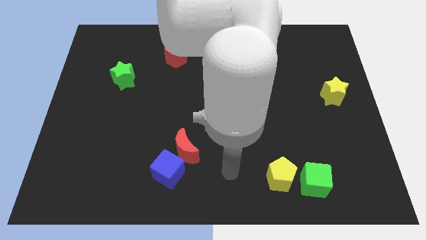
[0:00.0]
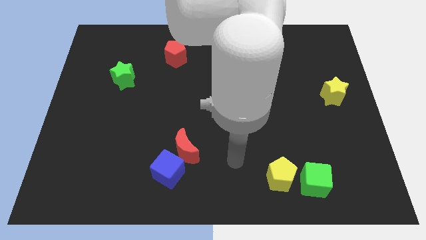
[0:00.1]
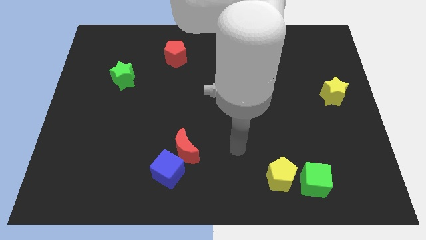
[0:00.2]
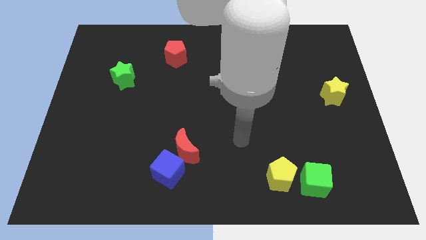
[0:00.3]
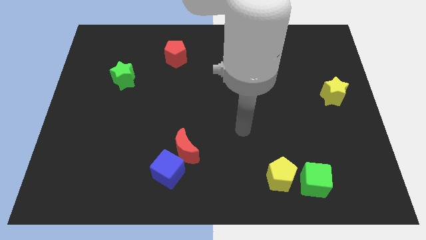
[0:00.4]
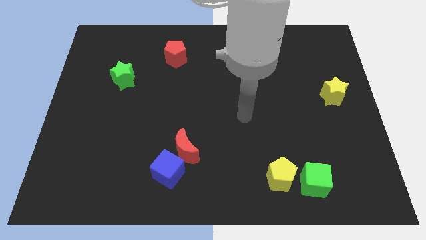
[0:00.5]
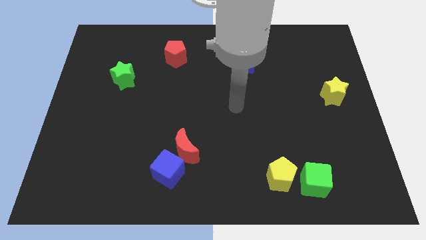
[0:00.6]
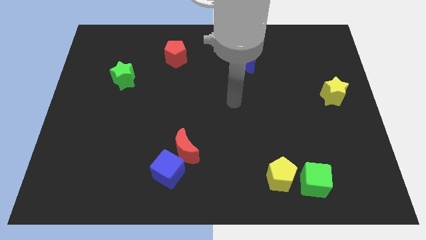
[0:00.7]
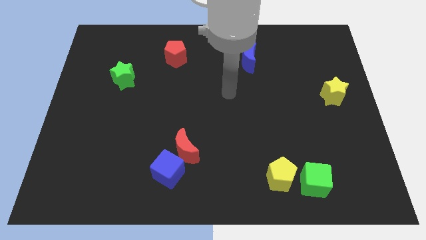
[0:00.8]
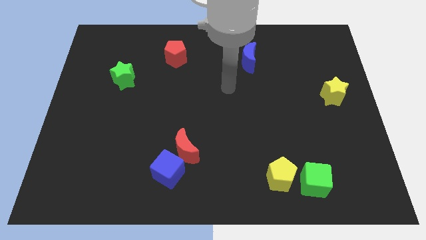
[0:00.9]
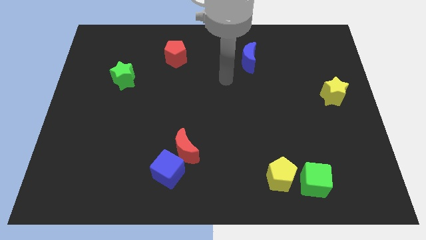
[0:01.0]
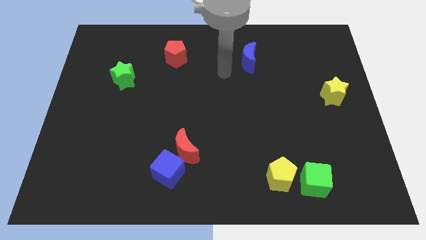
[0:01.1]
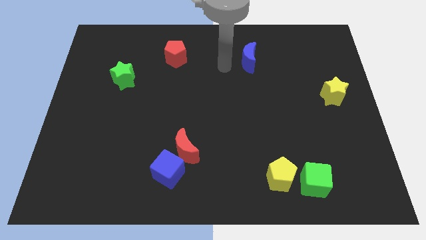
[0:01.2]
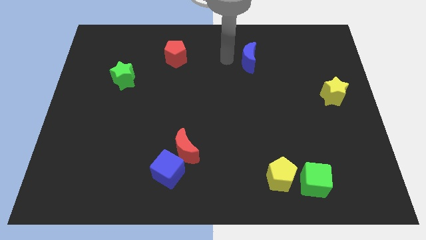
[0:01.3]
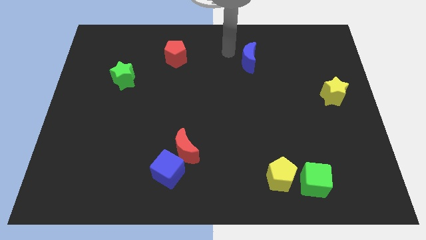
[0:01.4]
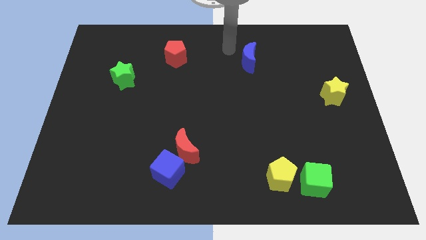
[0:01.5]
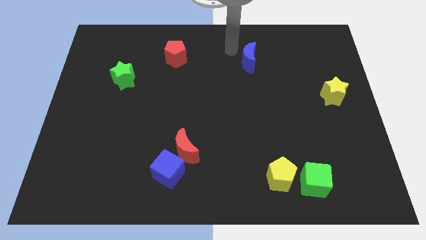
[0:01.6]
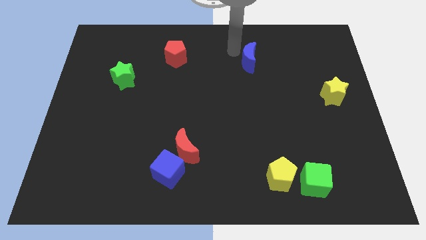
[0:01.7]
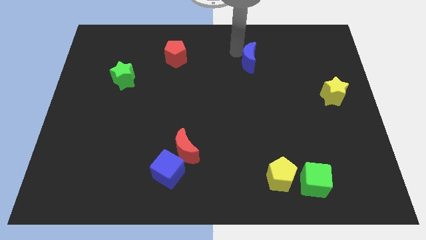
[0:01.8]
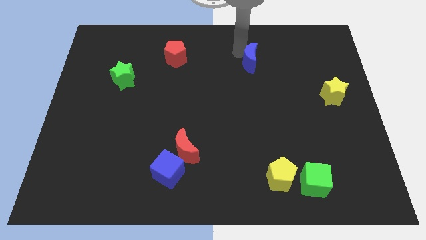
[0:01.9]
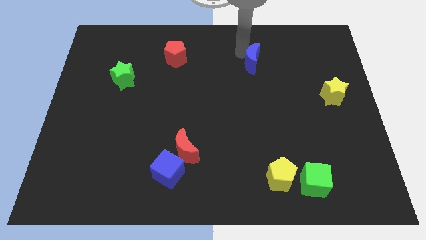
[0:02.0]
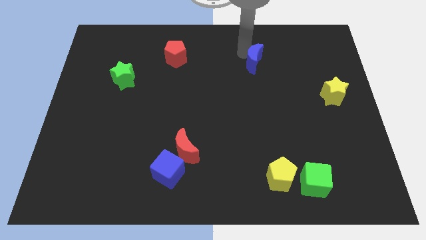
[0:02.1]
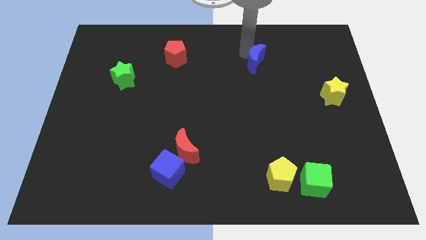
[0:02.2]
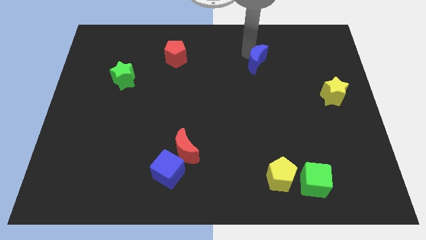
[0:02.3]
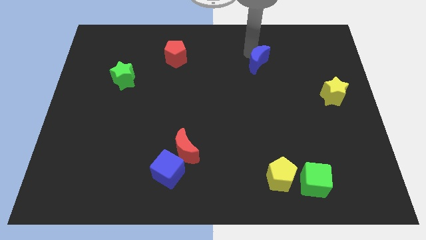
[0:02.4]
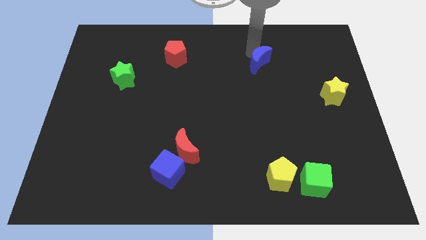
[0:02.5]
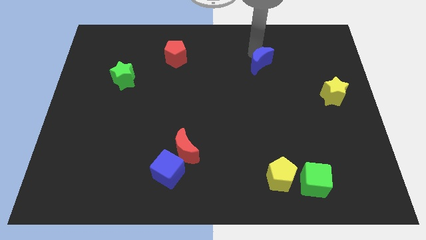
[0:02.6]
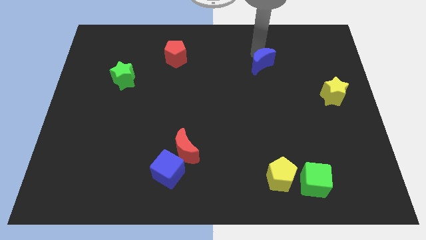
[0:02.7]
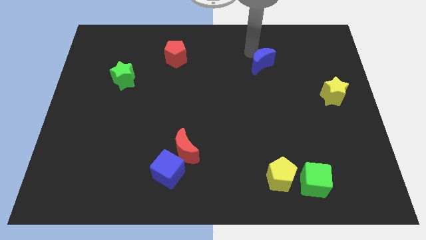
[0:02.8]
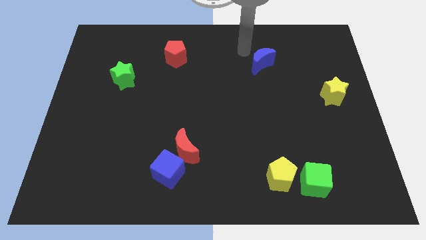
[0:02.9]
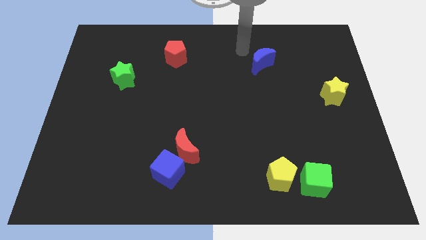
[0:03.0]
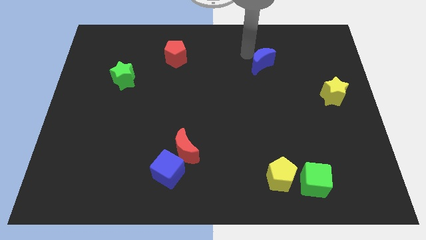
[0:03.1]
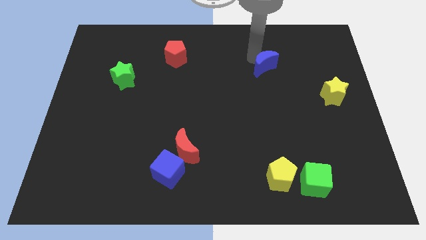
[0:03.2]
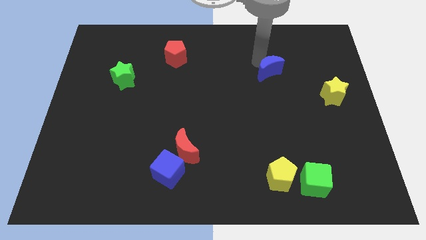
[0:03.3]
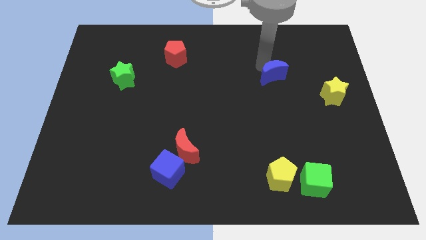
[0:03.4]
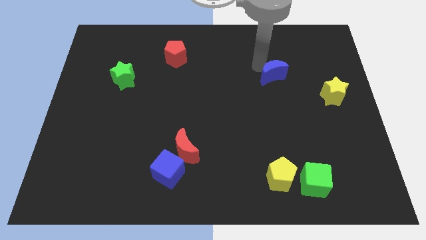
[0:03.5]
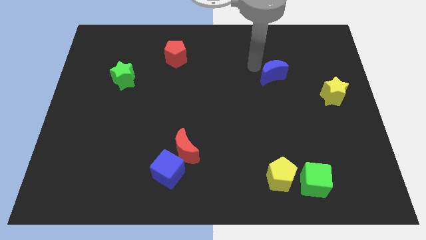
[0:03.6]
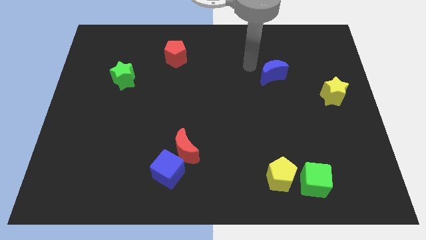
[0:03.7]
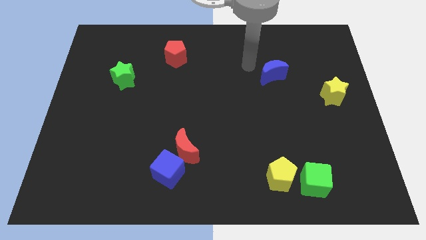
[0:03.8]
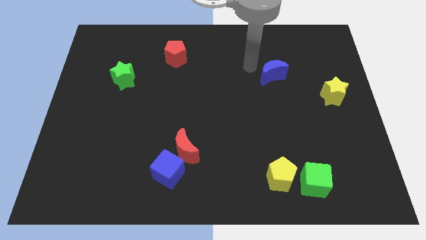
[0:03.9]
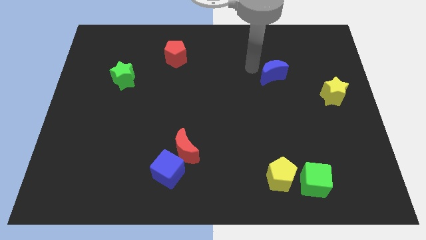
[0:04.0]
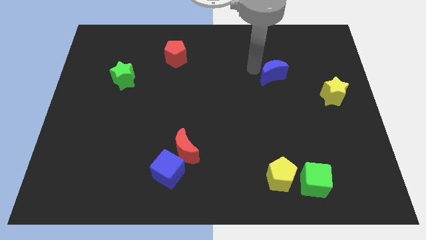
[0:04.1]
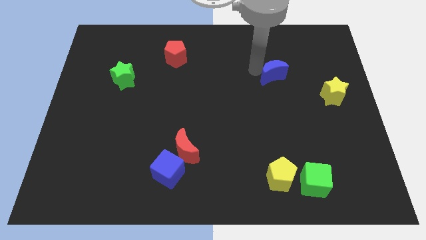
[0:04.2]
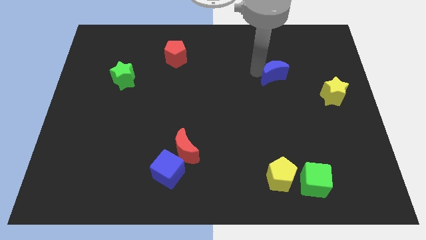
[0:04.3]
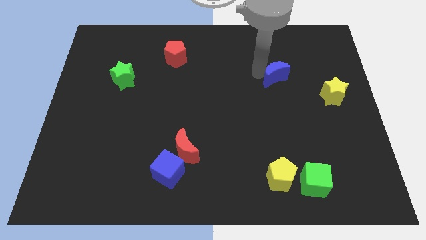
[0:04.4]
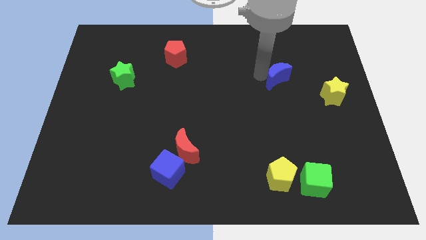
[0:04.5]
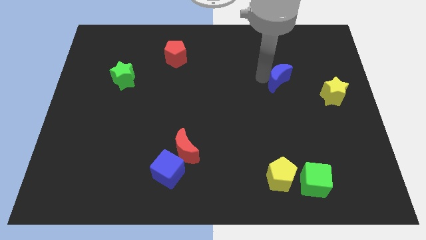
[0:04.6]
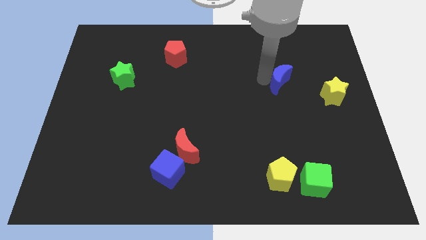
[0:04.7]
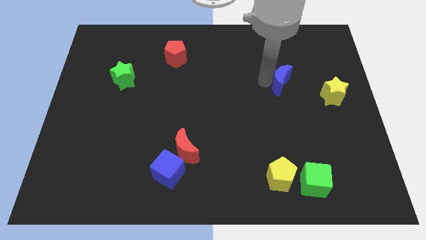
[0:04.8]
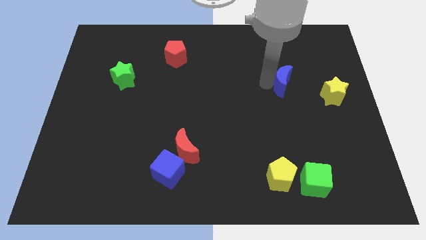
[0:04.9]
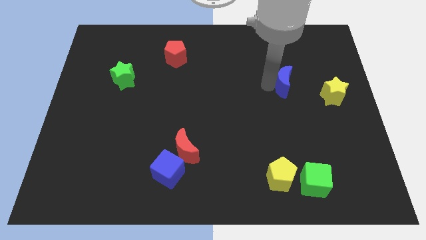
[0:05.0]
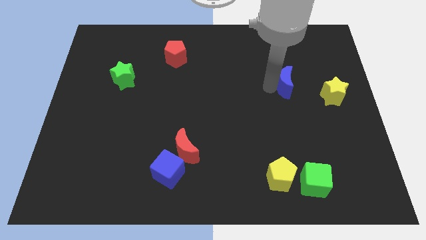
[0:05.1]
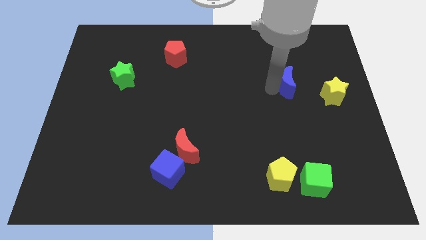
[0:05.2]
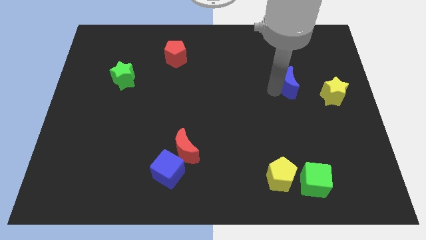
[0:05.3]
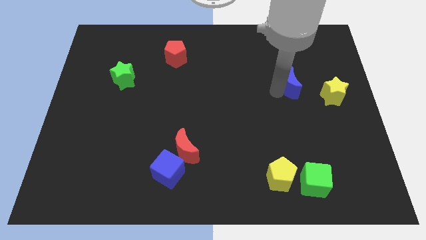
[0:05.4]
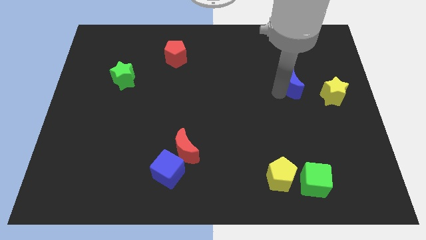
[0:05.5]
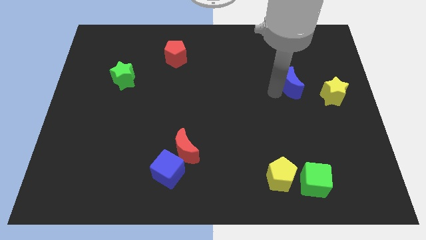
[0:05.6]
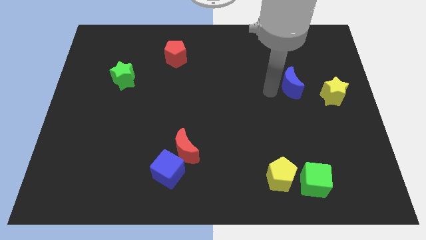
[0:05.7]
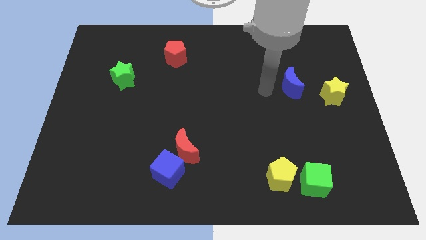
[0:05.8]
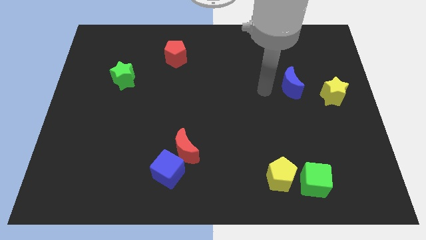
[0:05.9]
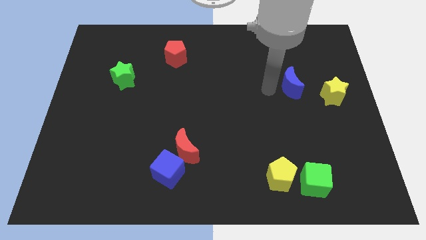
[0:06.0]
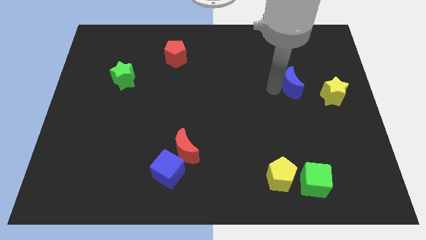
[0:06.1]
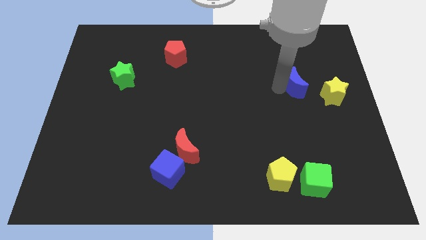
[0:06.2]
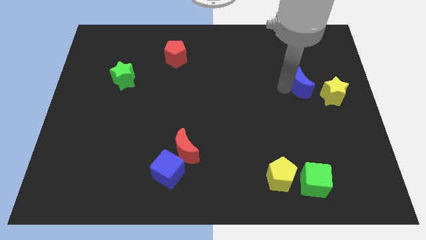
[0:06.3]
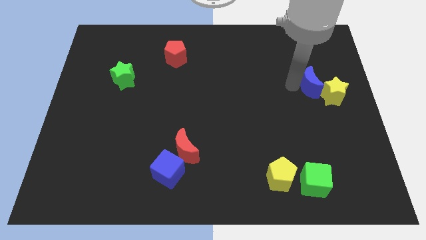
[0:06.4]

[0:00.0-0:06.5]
push the blue moon towards the yellow star
